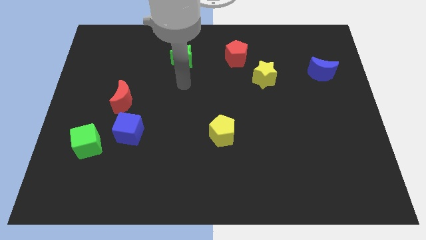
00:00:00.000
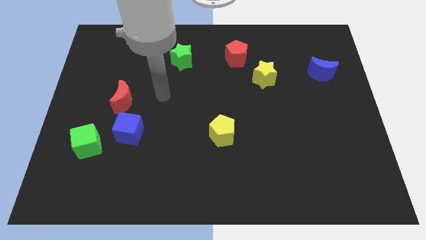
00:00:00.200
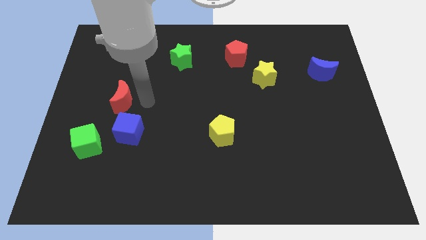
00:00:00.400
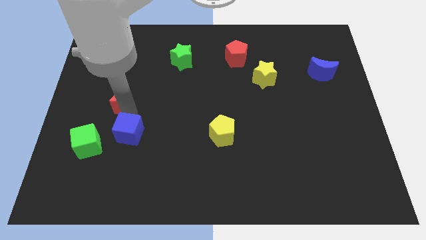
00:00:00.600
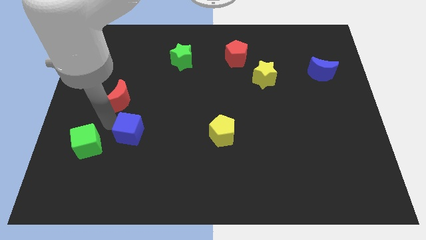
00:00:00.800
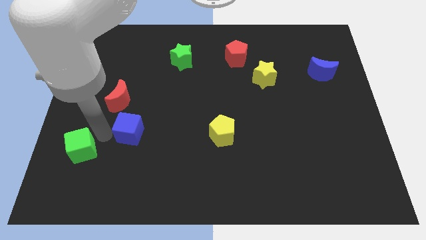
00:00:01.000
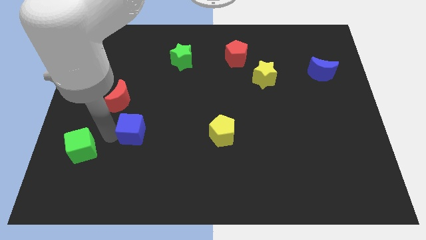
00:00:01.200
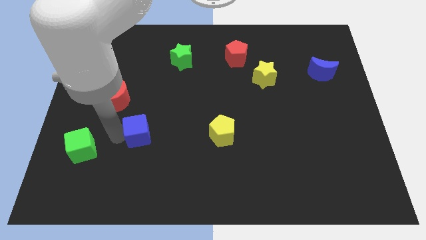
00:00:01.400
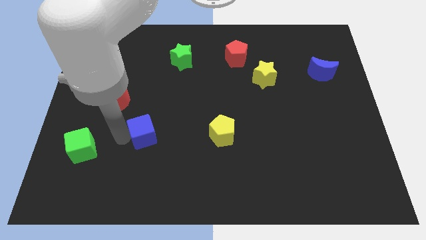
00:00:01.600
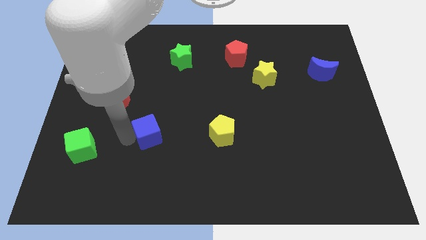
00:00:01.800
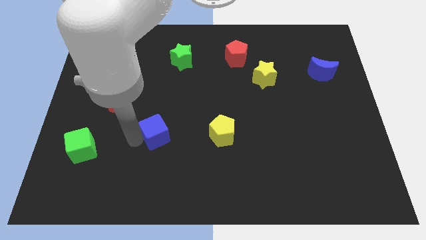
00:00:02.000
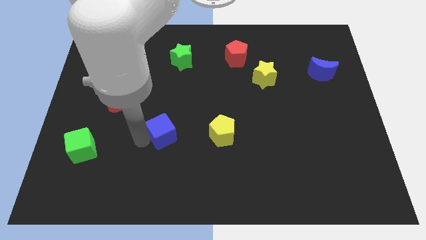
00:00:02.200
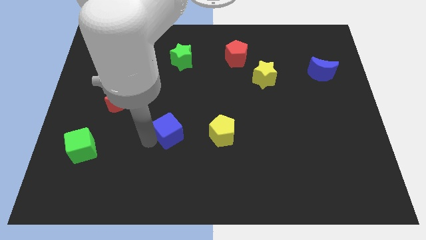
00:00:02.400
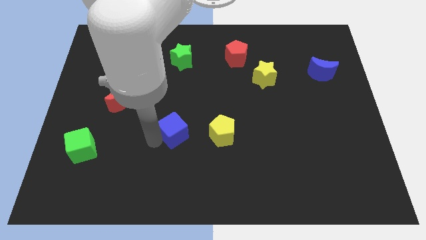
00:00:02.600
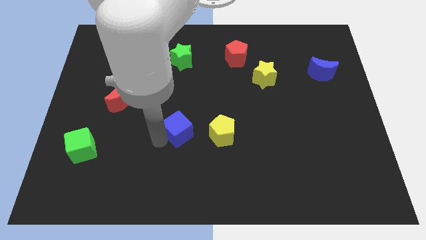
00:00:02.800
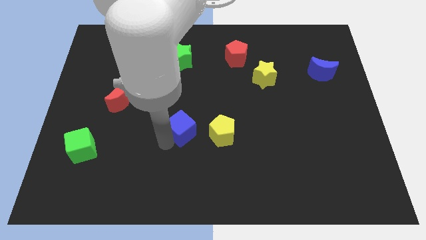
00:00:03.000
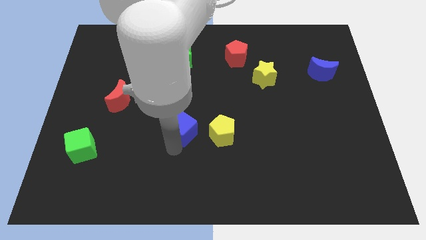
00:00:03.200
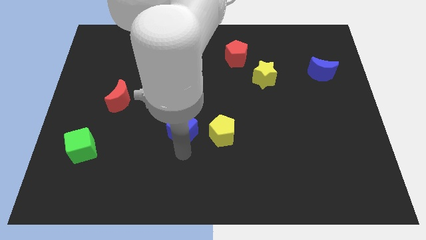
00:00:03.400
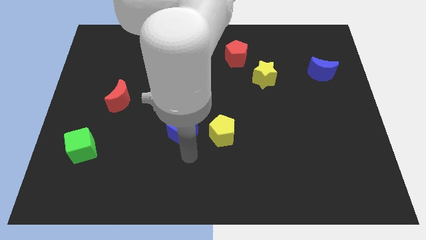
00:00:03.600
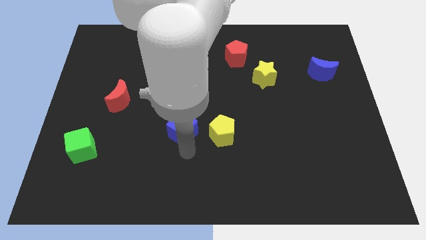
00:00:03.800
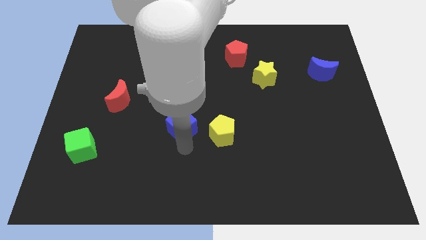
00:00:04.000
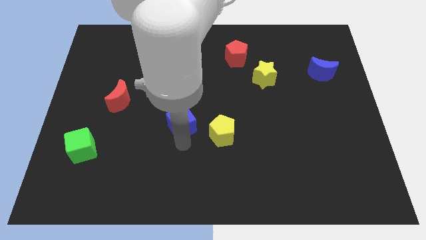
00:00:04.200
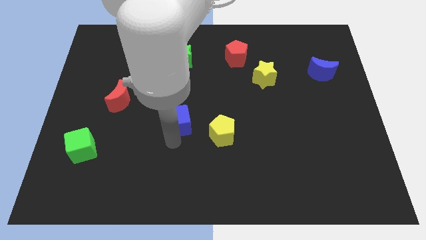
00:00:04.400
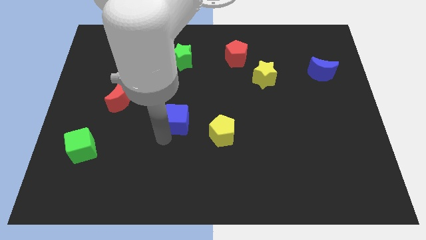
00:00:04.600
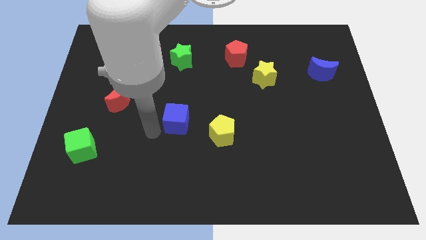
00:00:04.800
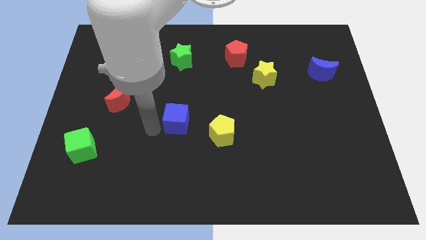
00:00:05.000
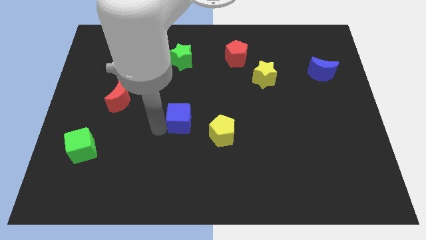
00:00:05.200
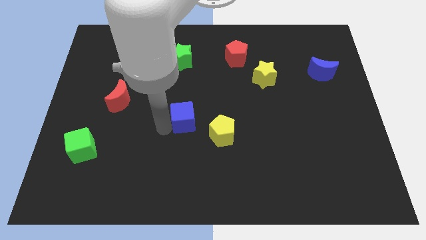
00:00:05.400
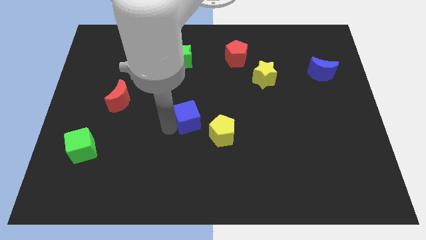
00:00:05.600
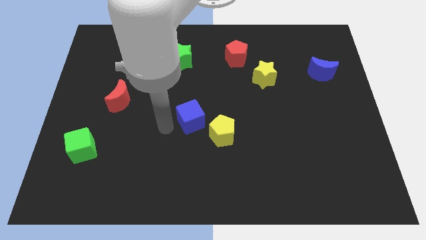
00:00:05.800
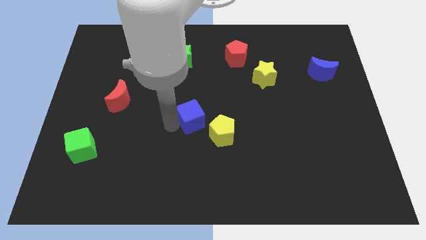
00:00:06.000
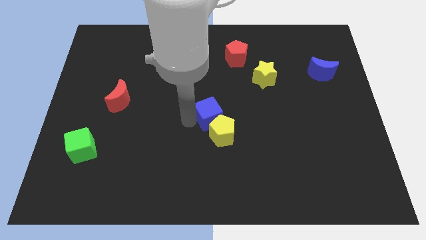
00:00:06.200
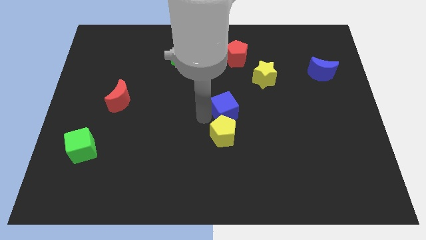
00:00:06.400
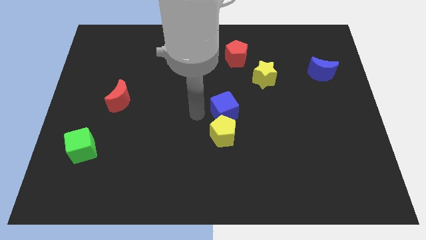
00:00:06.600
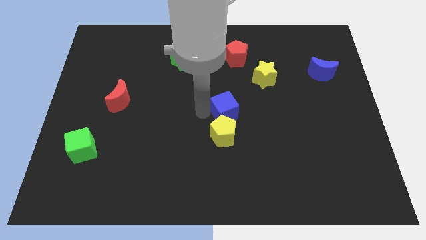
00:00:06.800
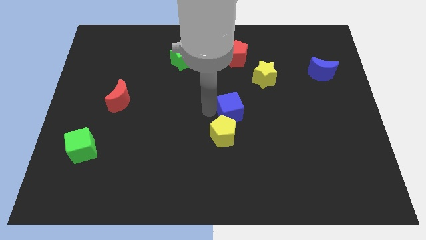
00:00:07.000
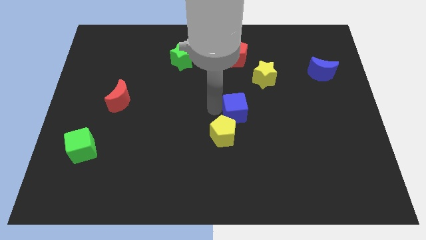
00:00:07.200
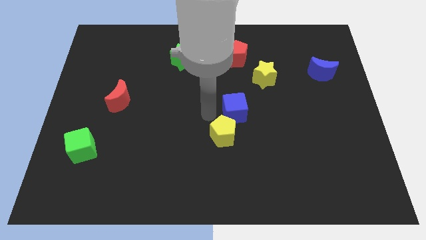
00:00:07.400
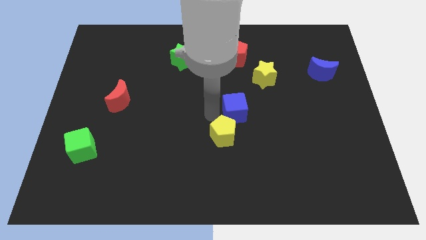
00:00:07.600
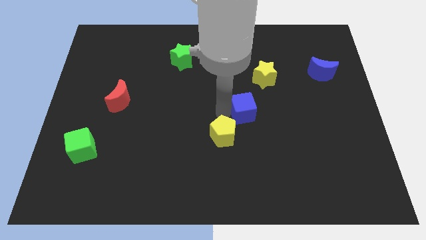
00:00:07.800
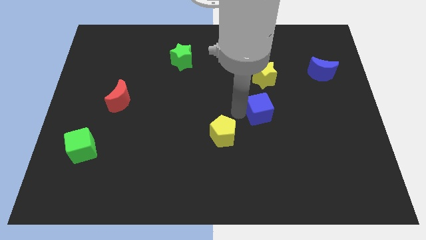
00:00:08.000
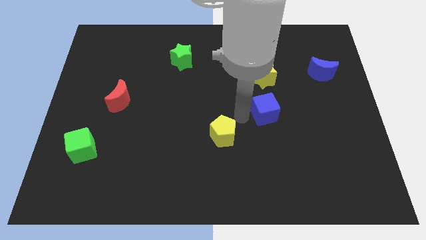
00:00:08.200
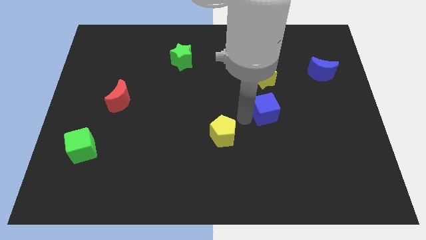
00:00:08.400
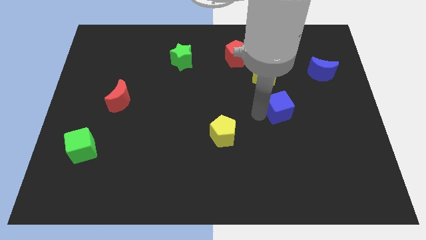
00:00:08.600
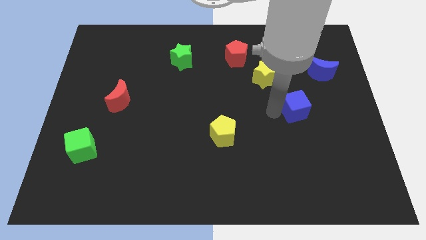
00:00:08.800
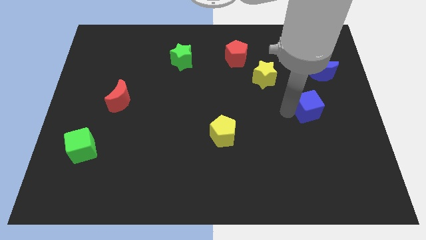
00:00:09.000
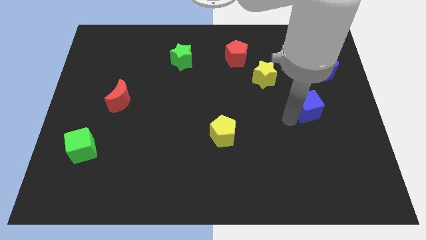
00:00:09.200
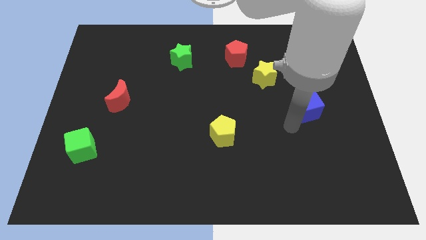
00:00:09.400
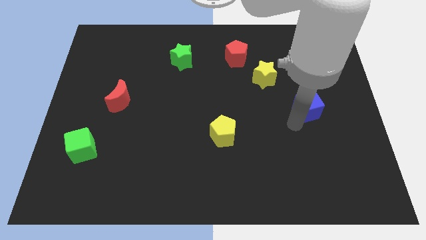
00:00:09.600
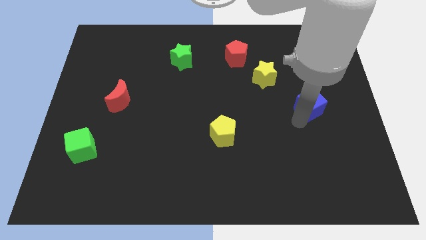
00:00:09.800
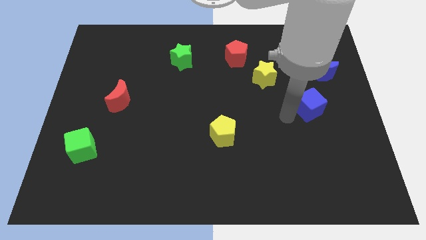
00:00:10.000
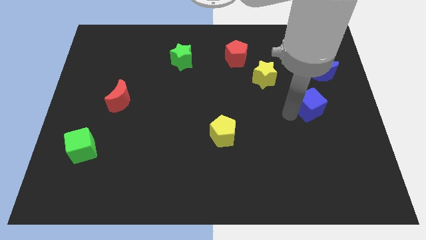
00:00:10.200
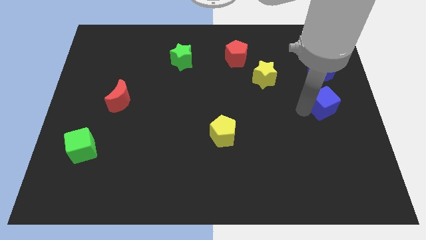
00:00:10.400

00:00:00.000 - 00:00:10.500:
slide the blue cube to the right side of the board

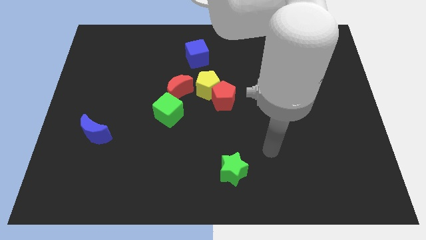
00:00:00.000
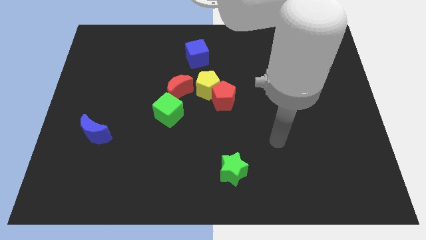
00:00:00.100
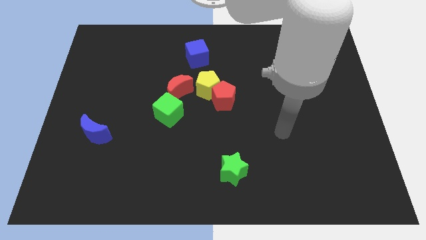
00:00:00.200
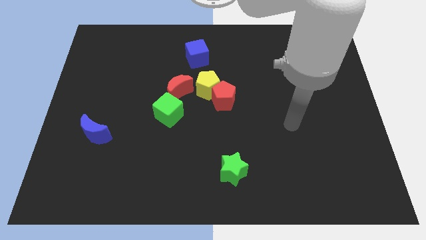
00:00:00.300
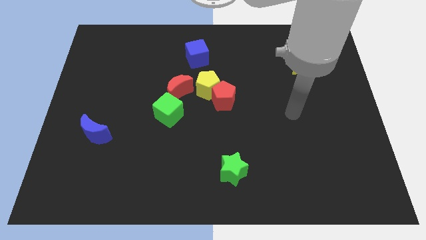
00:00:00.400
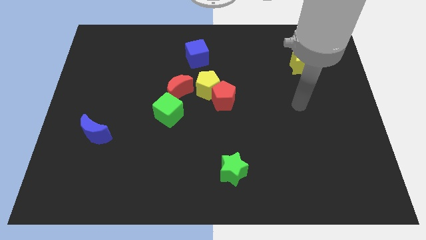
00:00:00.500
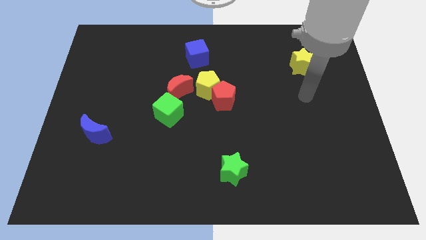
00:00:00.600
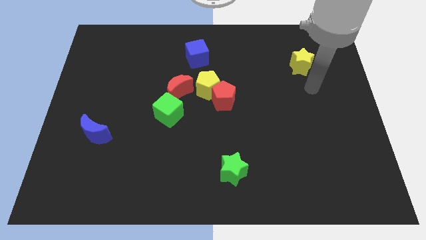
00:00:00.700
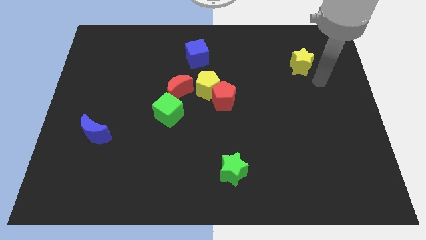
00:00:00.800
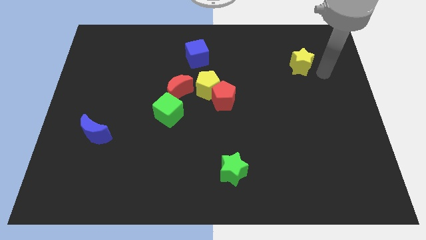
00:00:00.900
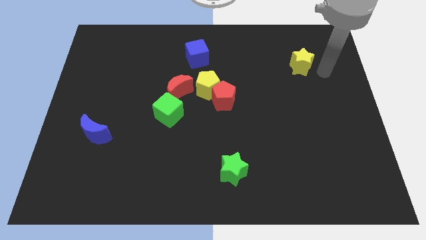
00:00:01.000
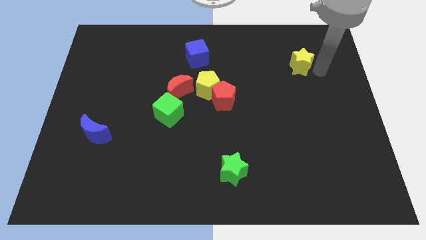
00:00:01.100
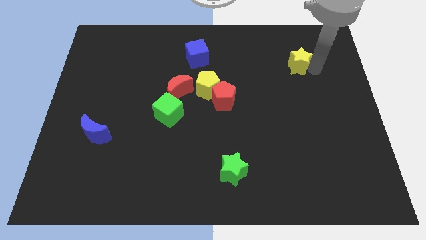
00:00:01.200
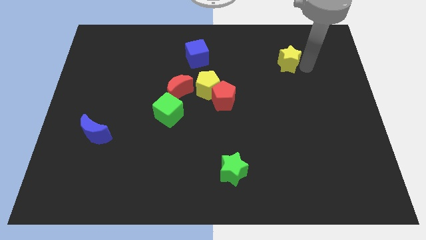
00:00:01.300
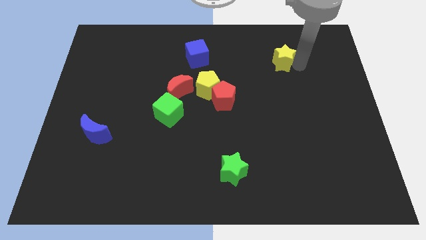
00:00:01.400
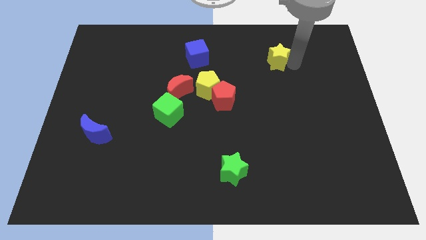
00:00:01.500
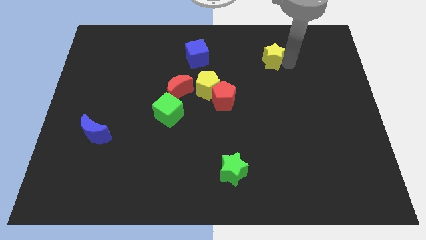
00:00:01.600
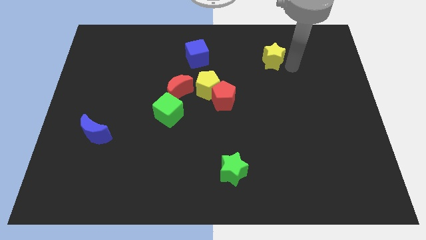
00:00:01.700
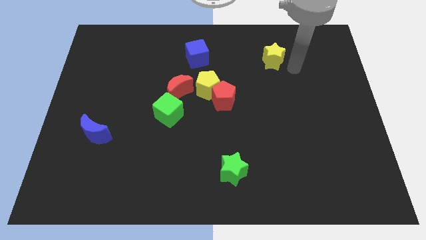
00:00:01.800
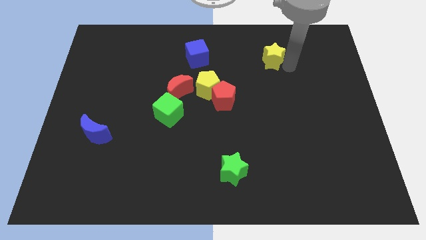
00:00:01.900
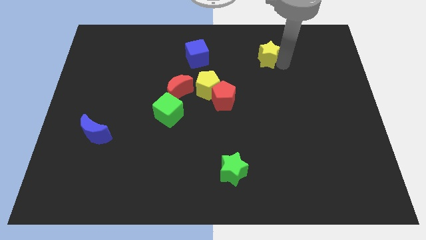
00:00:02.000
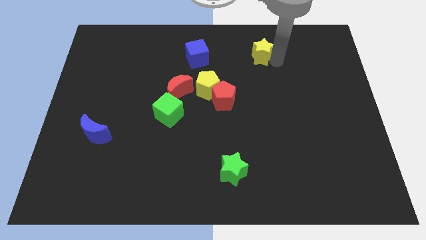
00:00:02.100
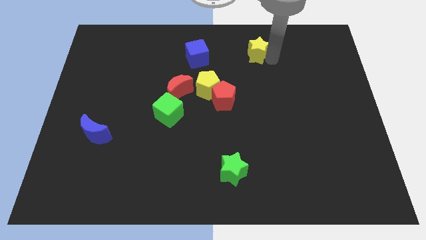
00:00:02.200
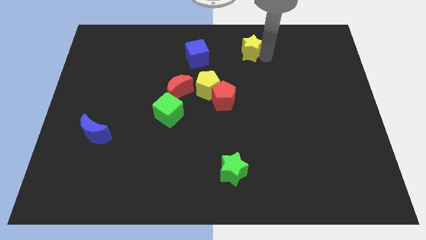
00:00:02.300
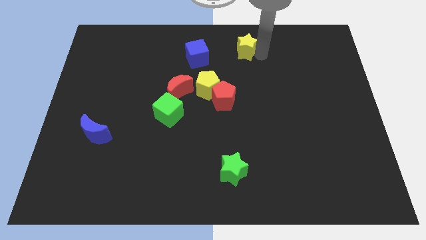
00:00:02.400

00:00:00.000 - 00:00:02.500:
push the yellow star to the top side
